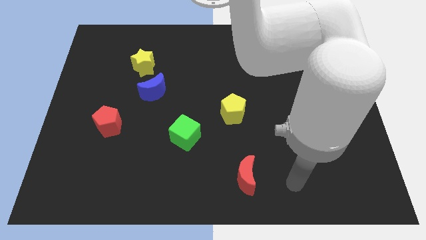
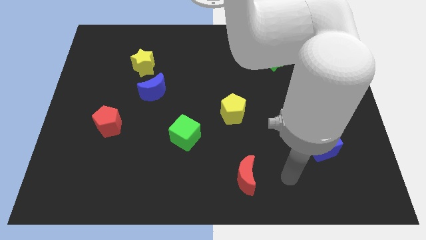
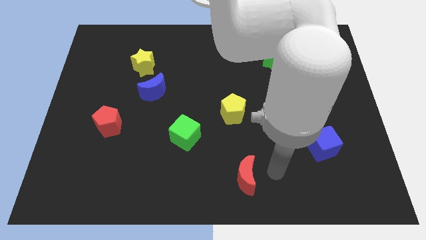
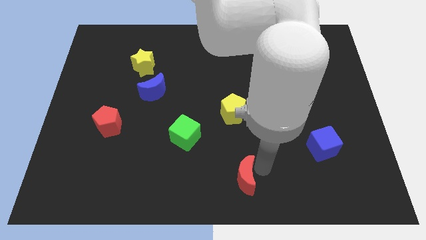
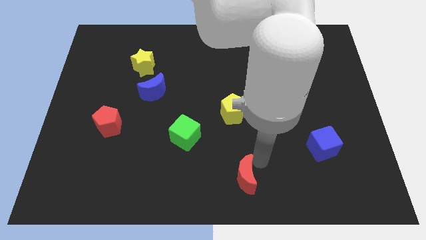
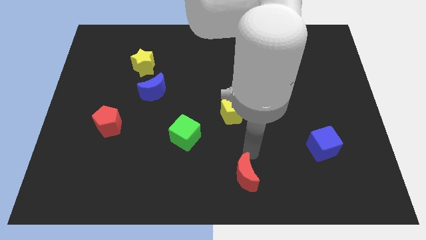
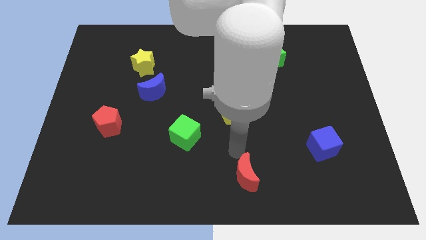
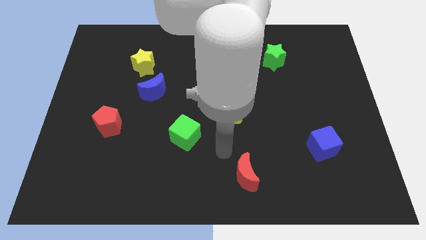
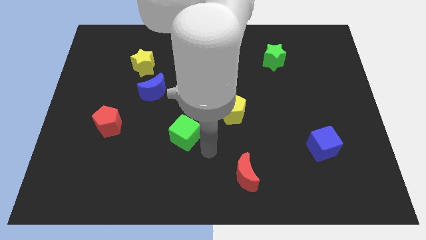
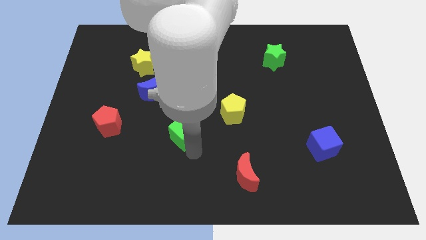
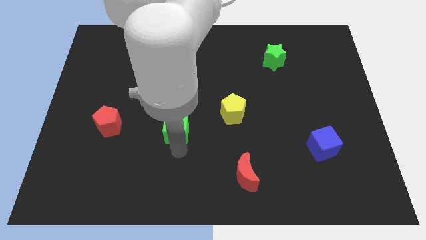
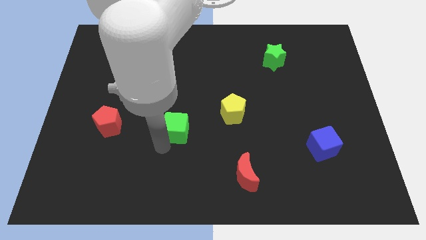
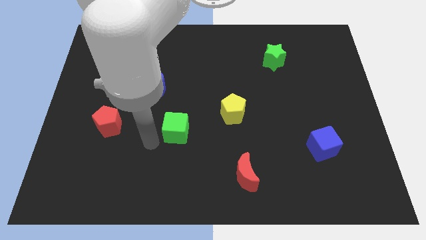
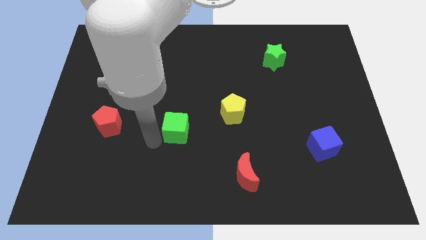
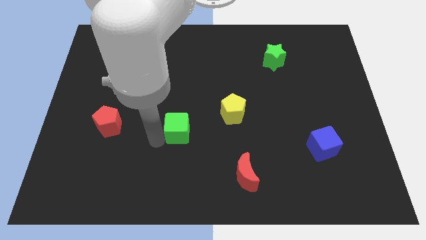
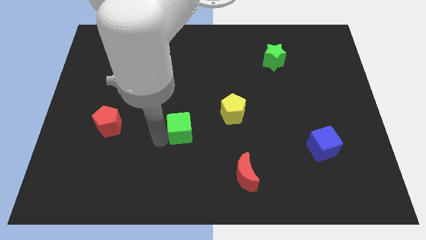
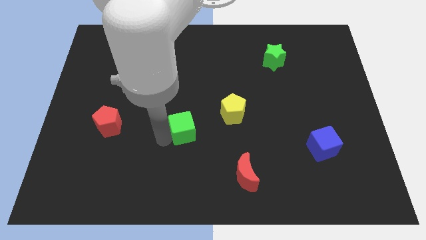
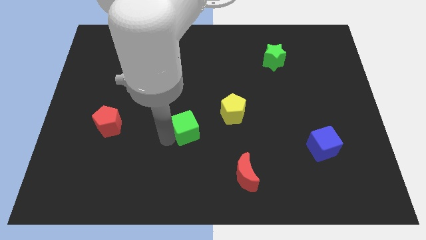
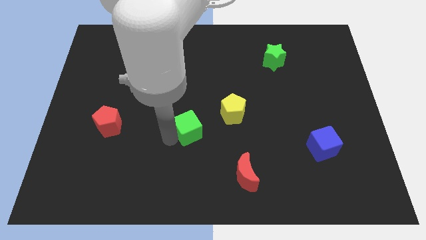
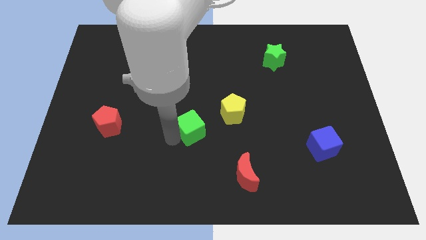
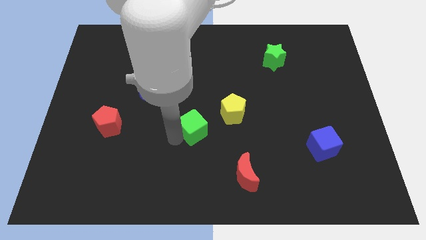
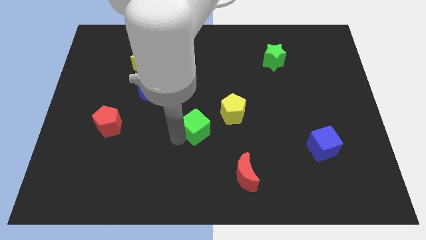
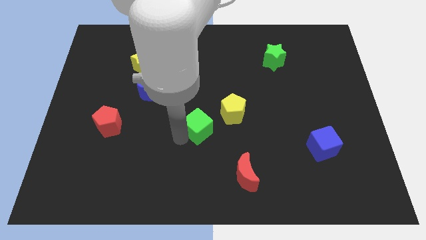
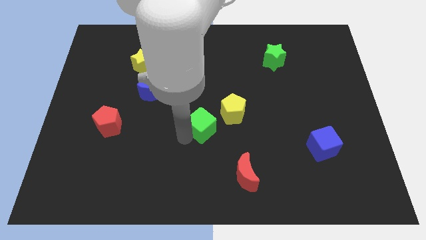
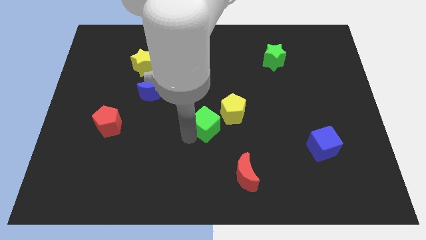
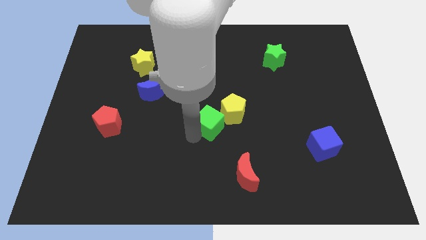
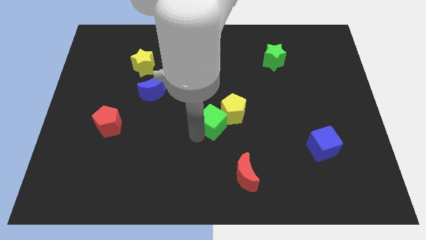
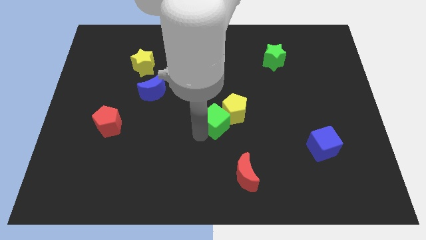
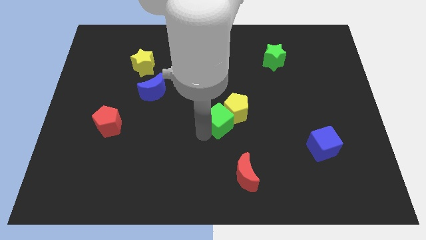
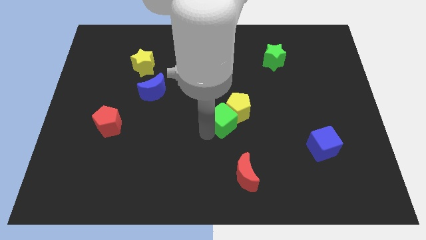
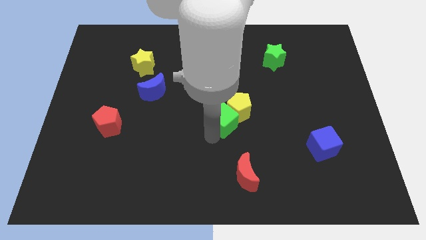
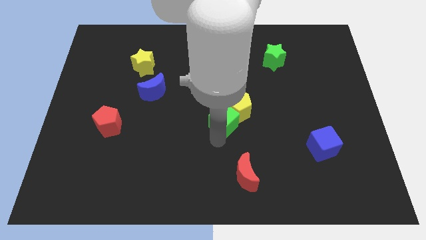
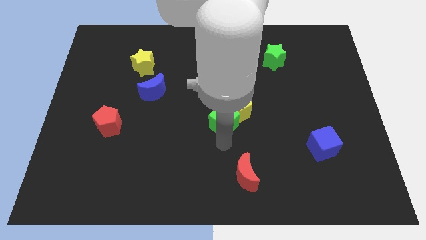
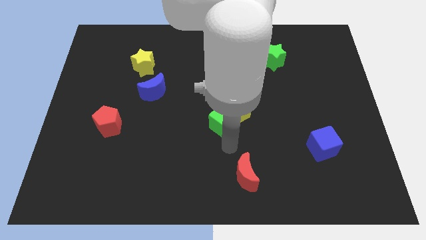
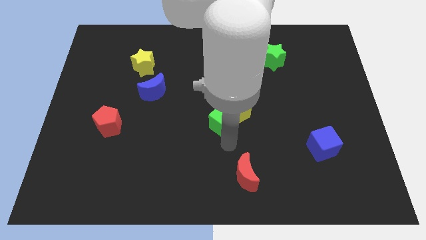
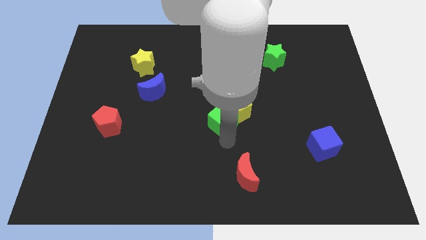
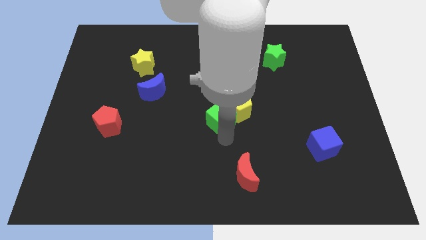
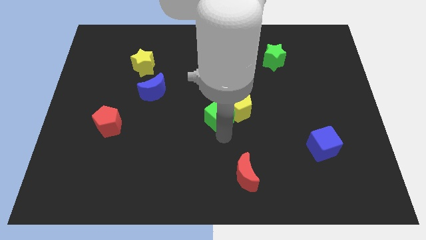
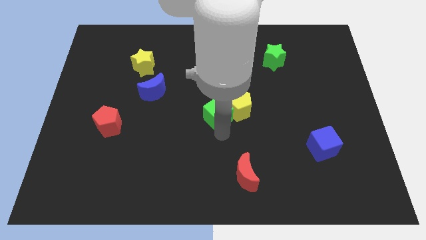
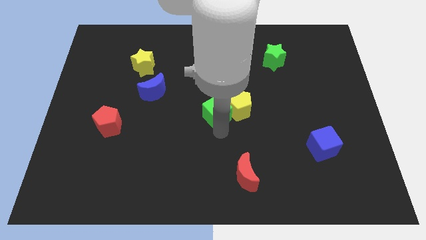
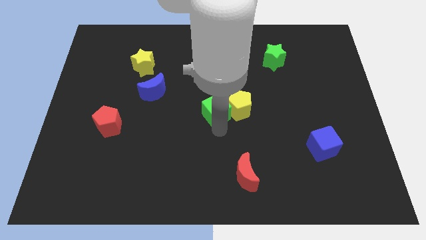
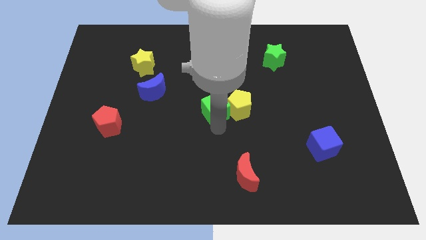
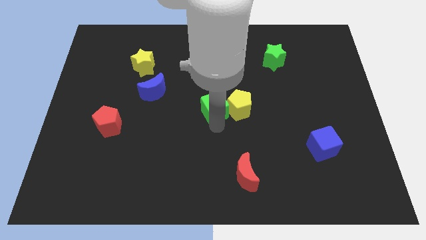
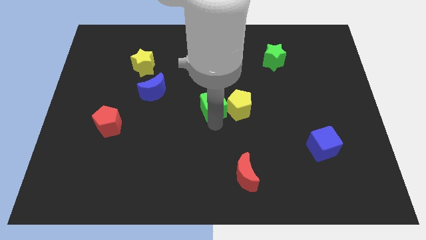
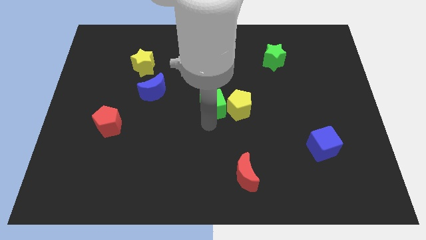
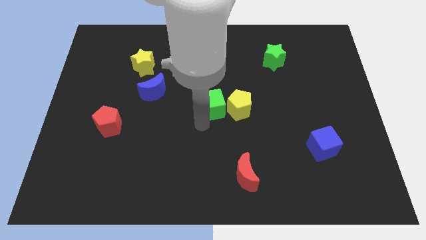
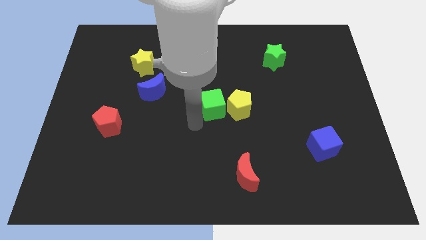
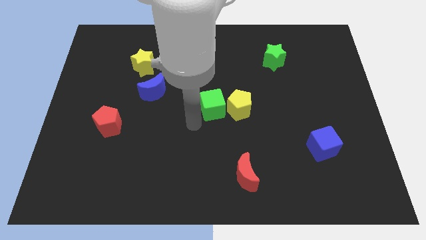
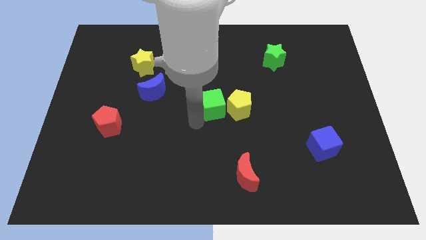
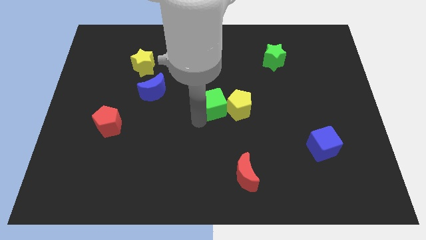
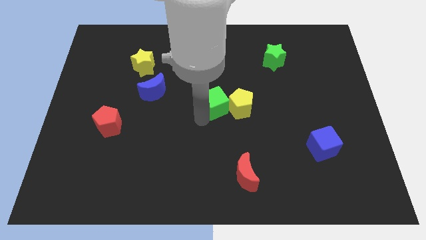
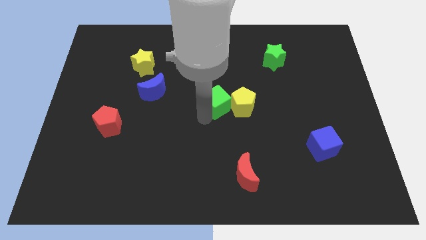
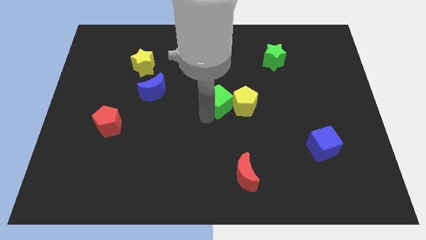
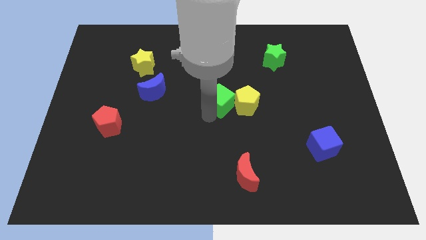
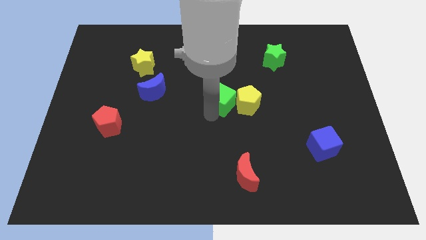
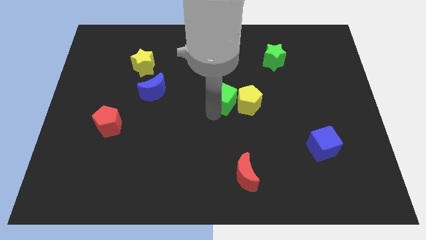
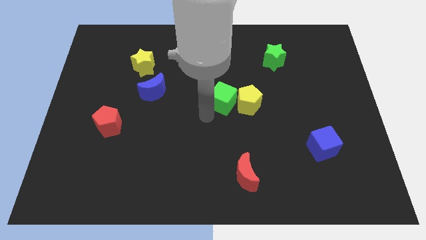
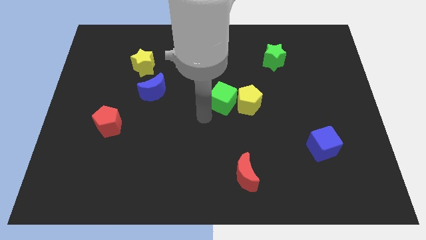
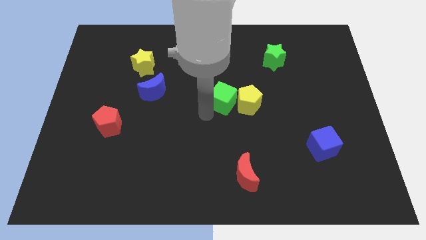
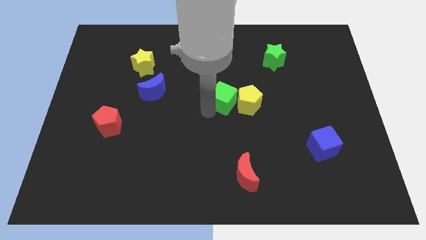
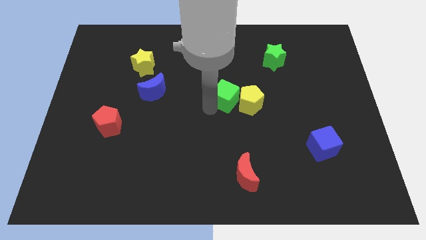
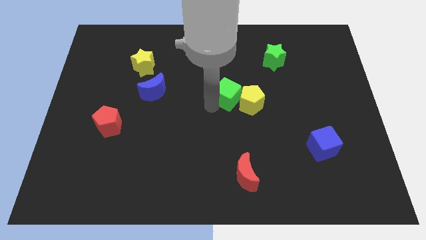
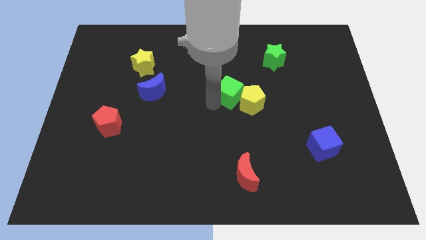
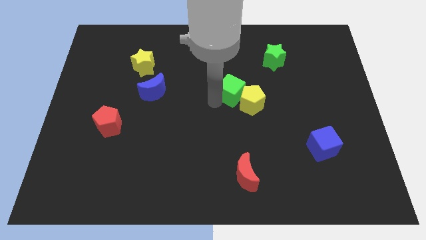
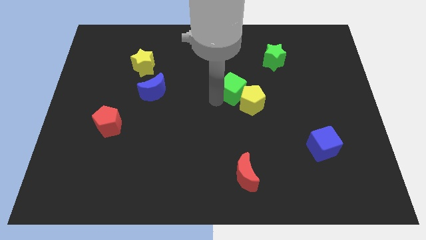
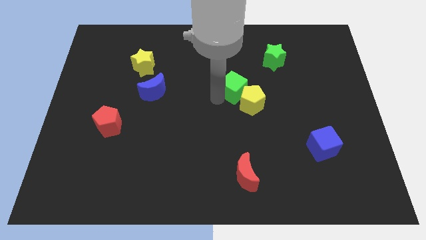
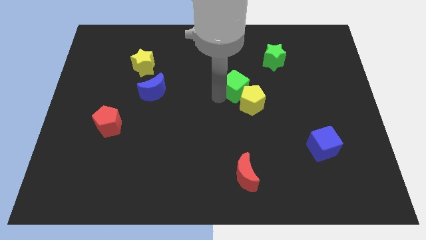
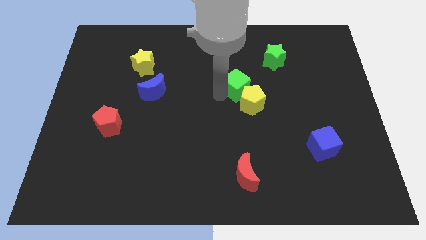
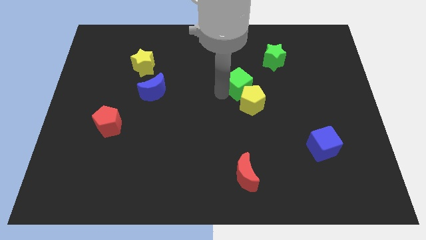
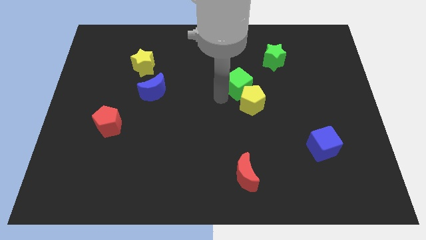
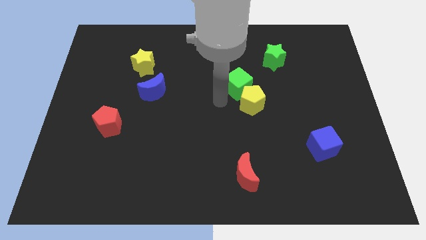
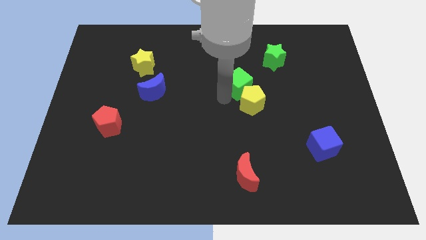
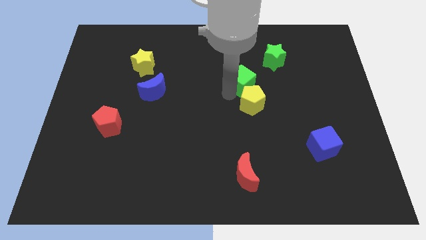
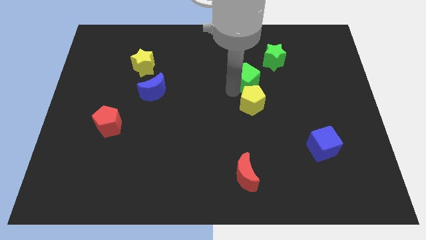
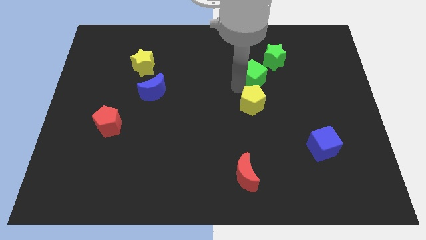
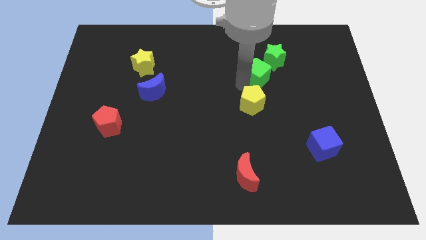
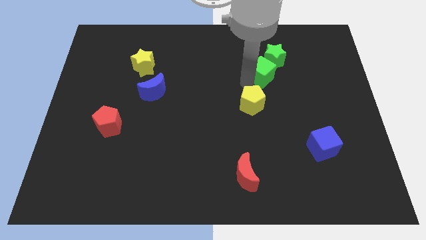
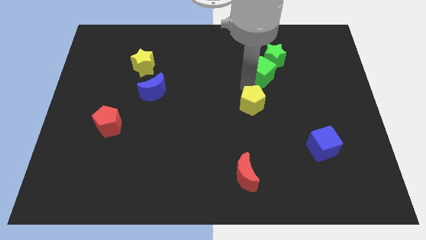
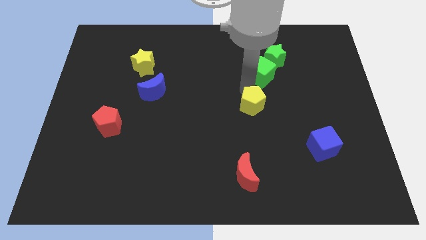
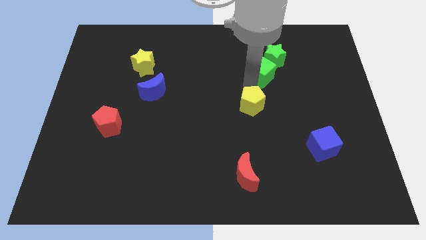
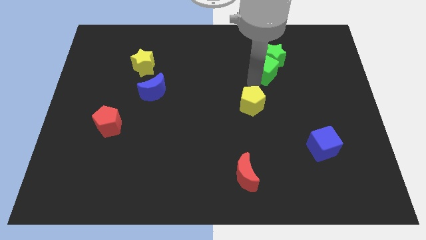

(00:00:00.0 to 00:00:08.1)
slide the green cube next to the green star
